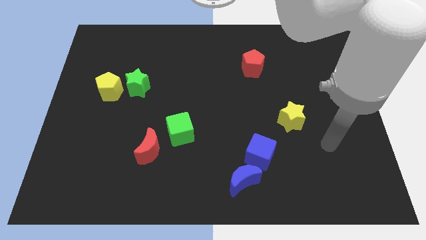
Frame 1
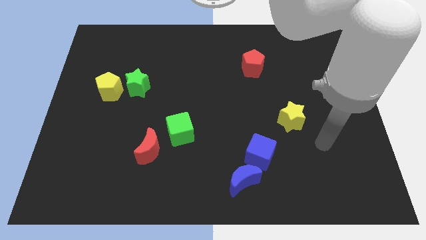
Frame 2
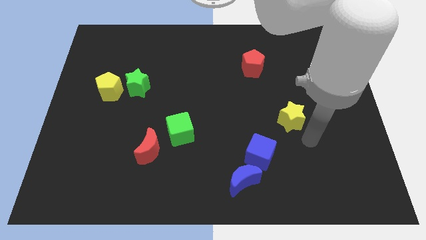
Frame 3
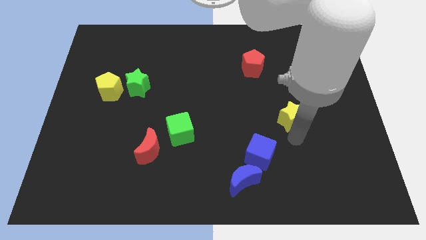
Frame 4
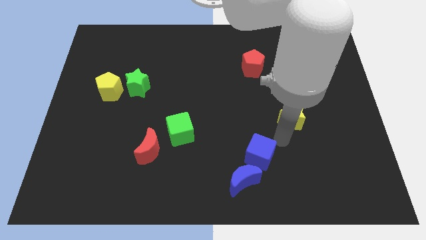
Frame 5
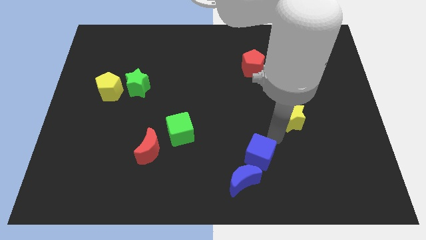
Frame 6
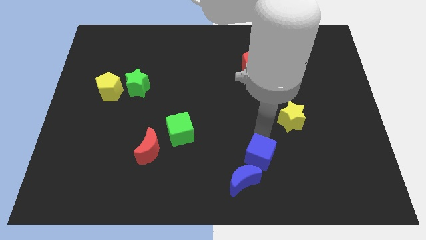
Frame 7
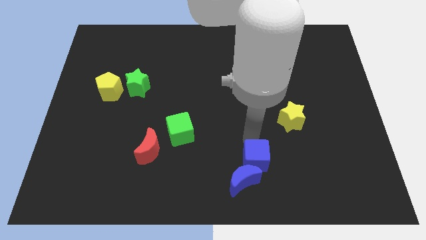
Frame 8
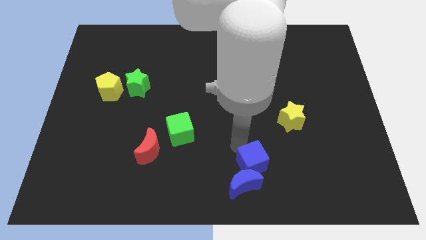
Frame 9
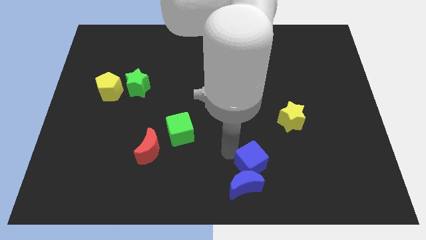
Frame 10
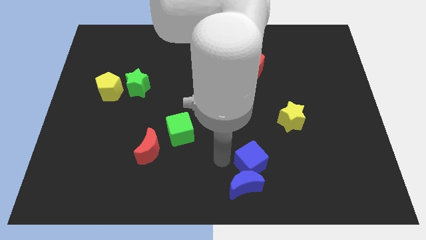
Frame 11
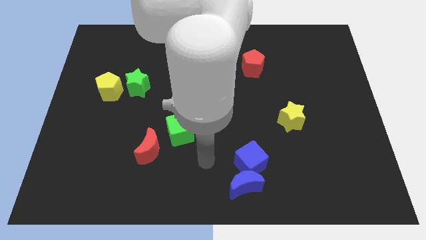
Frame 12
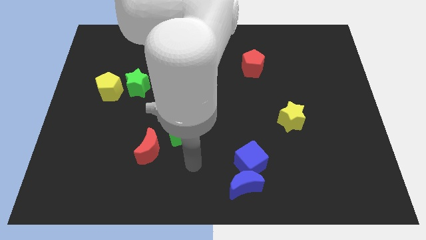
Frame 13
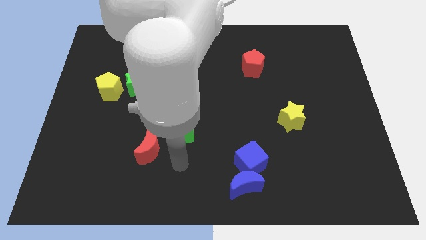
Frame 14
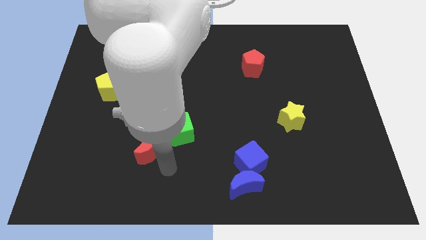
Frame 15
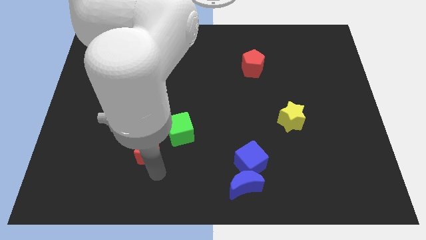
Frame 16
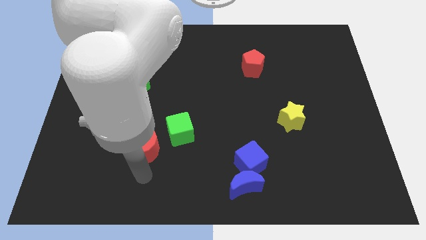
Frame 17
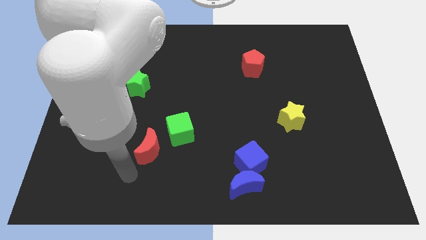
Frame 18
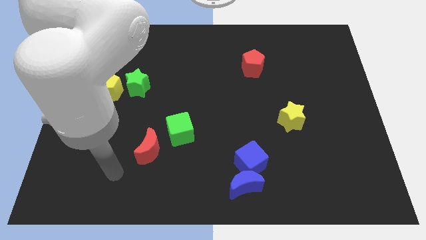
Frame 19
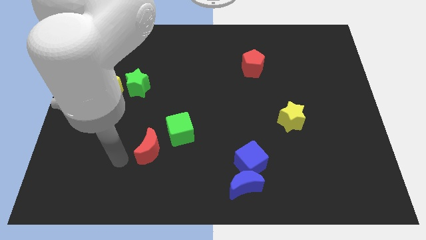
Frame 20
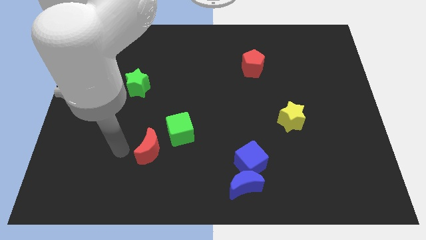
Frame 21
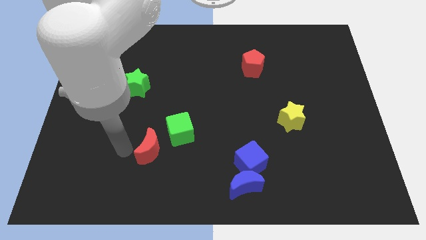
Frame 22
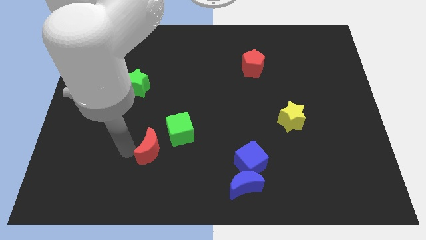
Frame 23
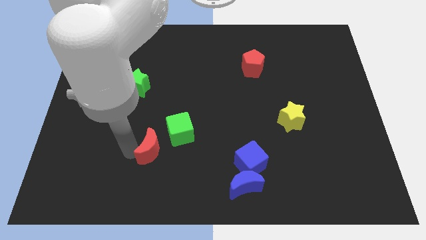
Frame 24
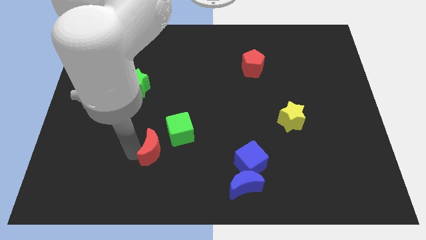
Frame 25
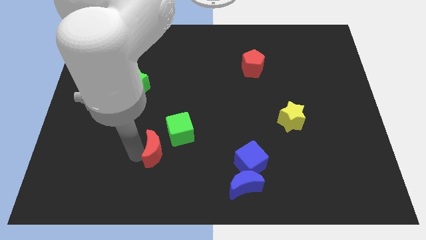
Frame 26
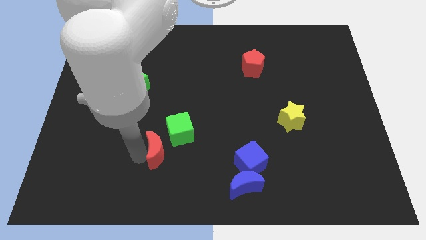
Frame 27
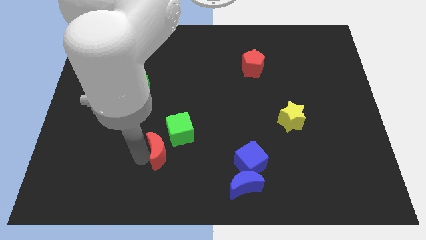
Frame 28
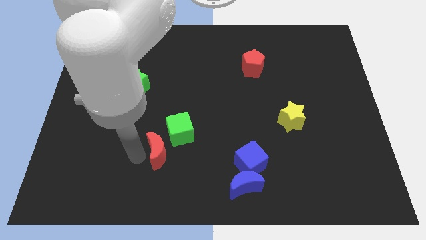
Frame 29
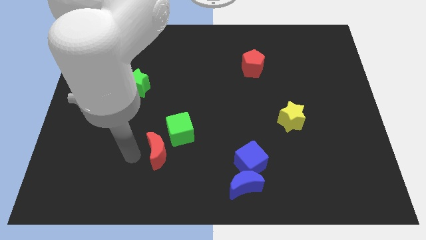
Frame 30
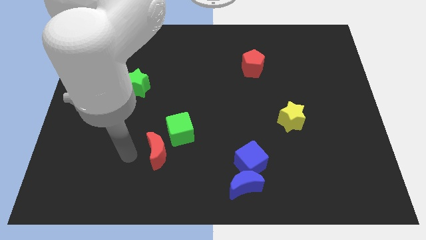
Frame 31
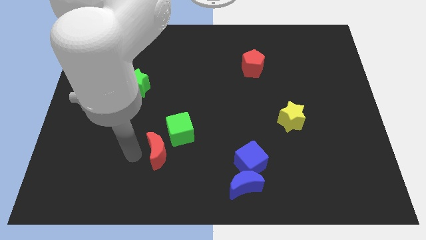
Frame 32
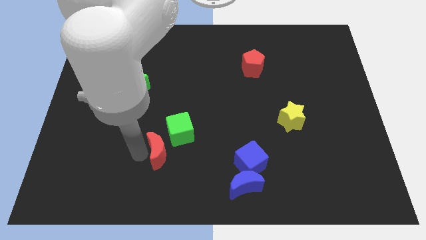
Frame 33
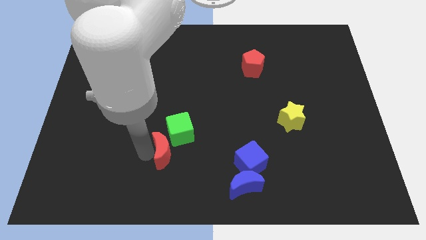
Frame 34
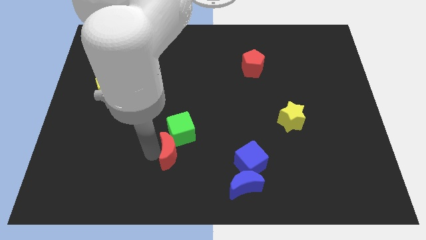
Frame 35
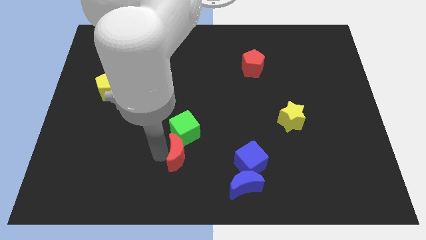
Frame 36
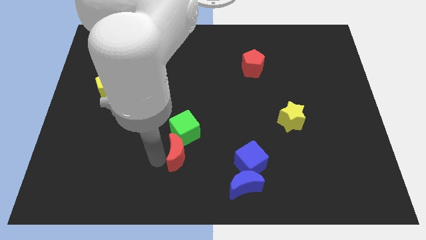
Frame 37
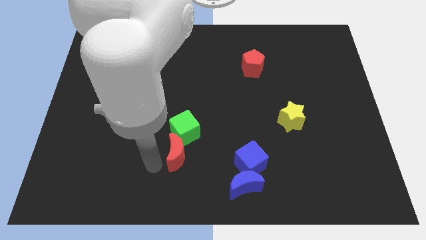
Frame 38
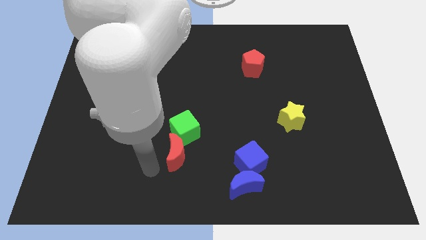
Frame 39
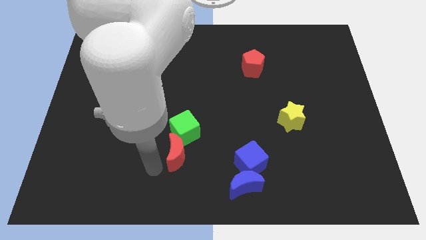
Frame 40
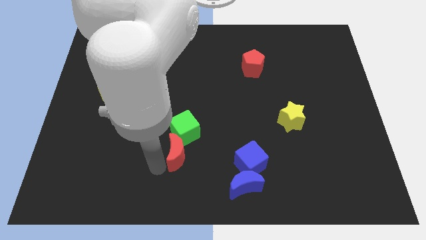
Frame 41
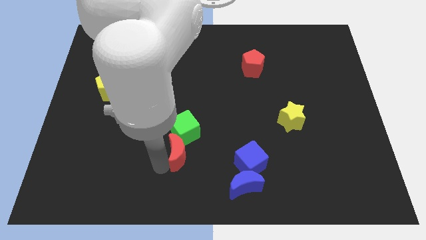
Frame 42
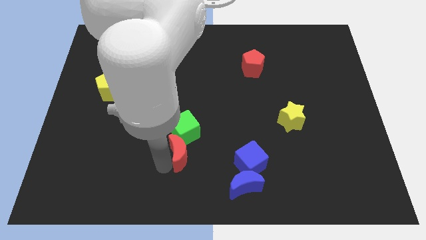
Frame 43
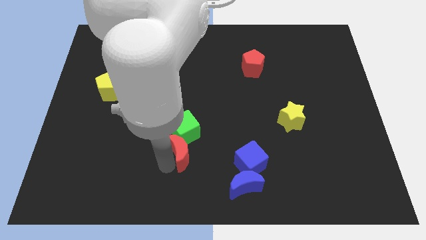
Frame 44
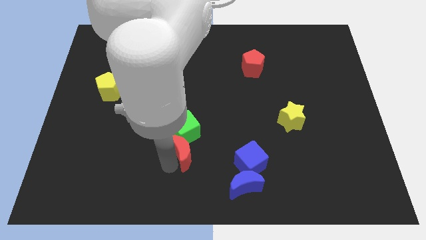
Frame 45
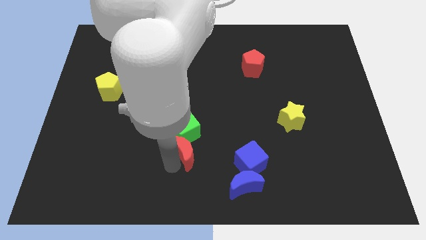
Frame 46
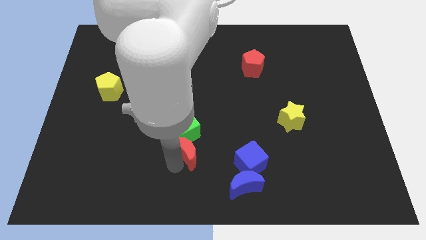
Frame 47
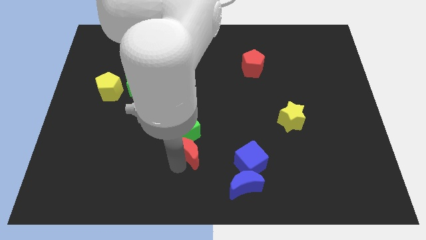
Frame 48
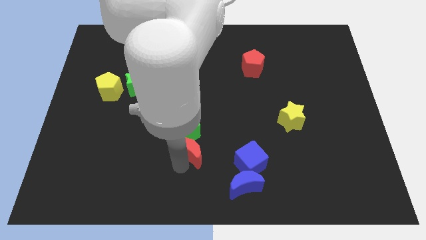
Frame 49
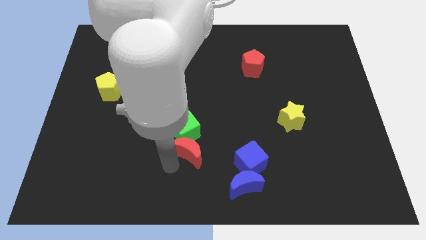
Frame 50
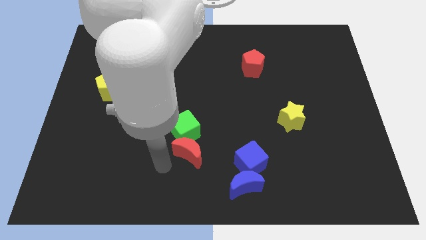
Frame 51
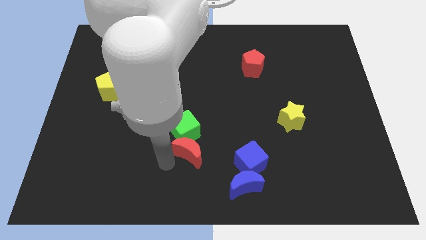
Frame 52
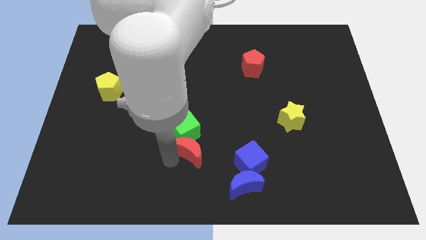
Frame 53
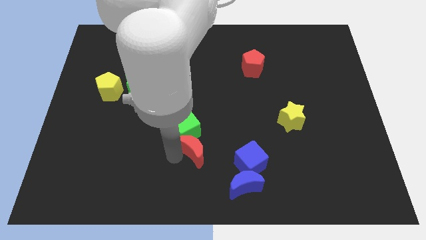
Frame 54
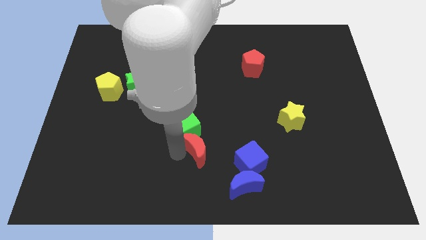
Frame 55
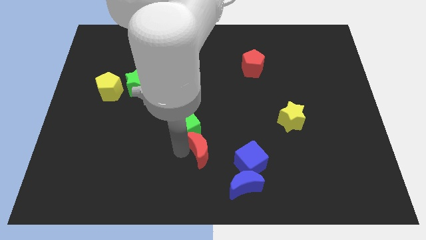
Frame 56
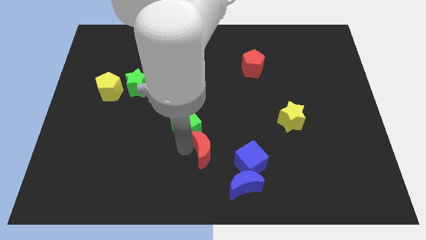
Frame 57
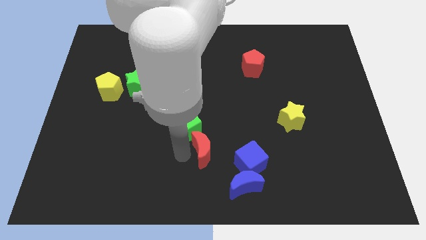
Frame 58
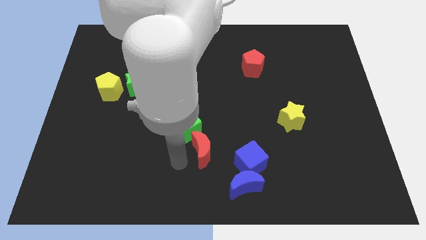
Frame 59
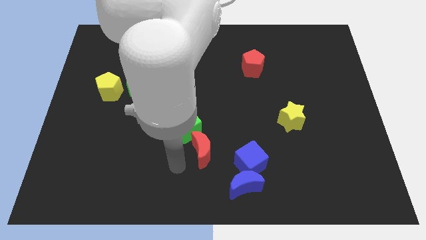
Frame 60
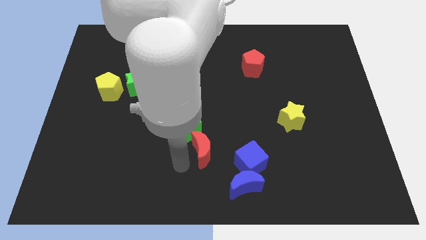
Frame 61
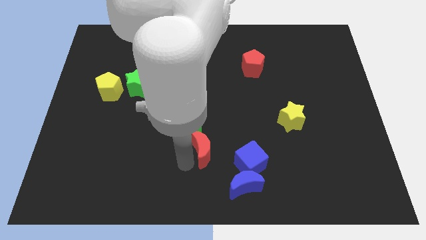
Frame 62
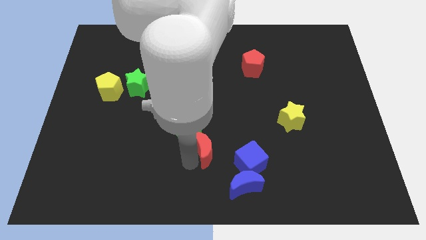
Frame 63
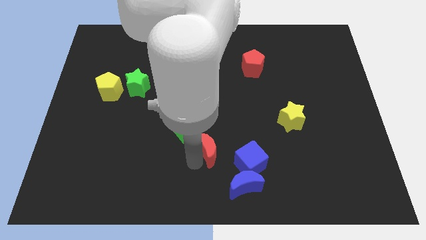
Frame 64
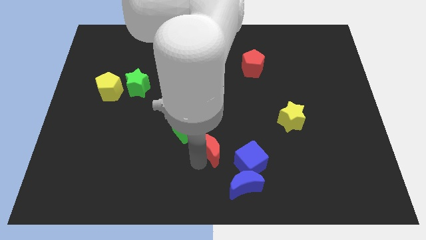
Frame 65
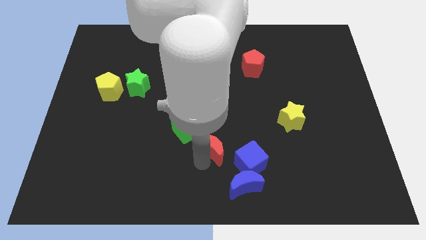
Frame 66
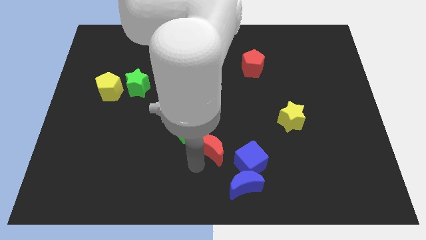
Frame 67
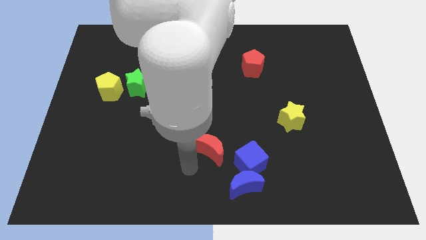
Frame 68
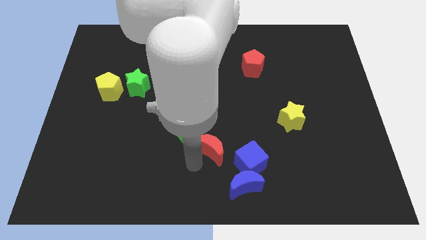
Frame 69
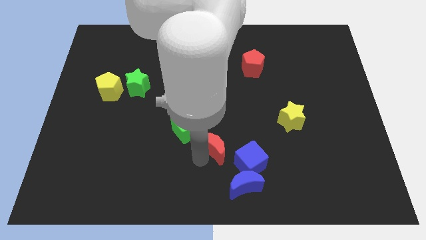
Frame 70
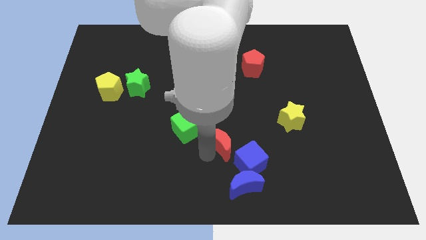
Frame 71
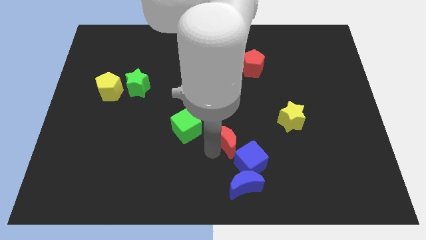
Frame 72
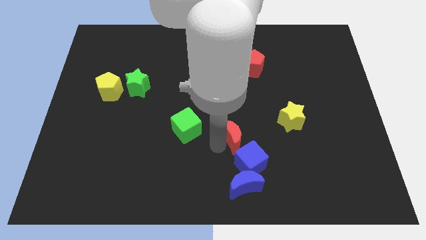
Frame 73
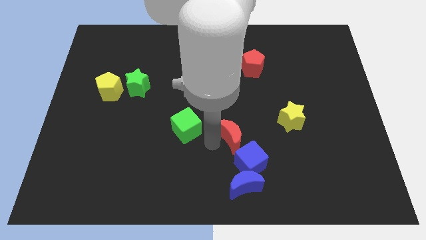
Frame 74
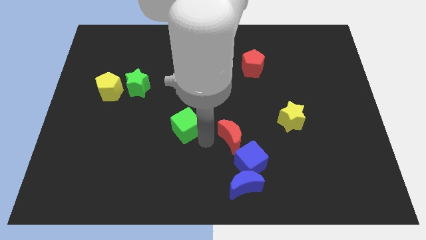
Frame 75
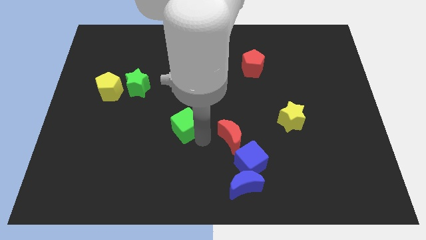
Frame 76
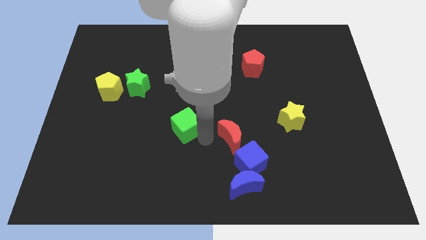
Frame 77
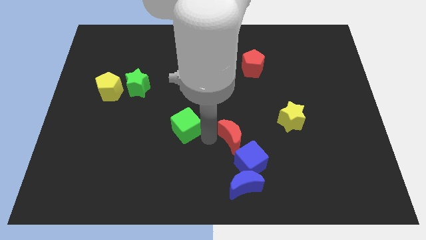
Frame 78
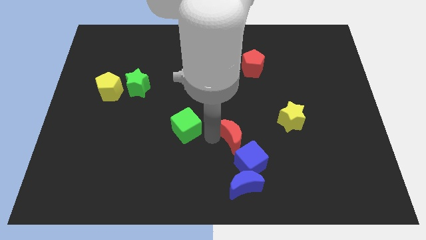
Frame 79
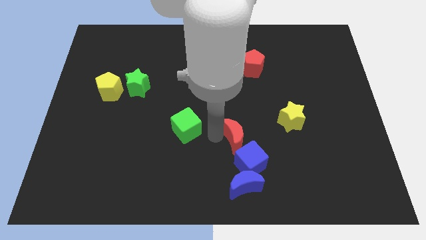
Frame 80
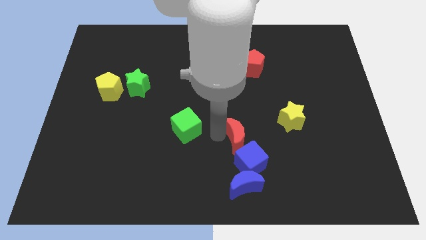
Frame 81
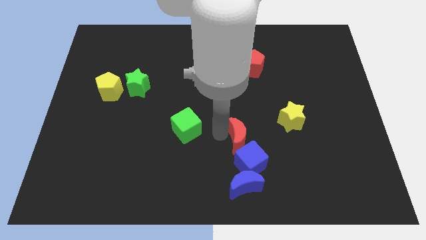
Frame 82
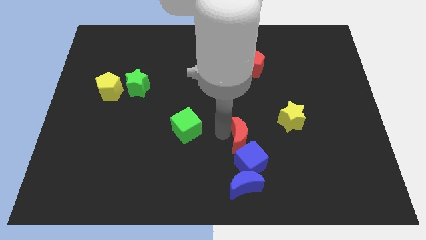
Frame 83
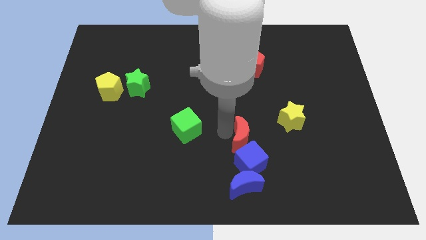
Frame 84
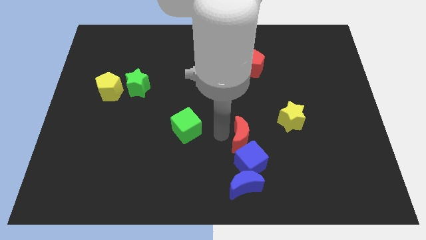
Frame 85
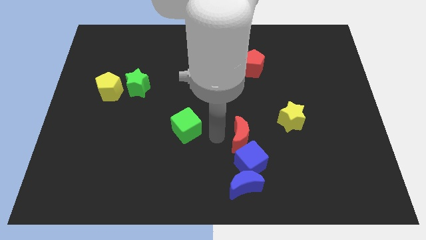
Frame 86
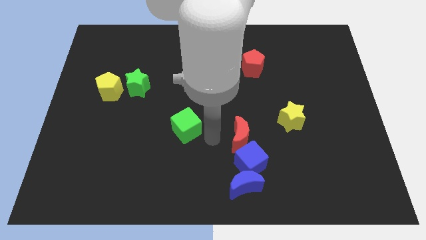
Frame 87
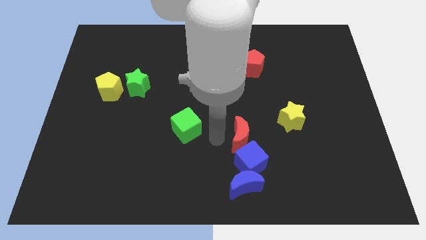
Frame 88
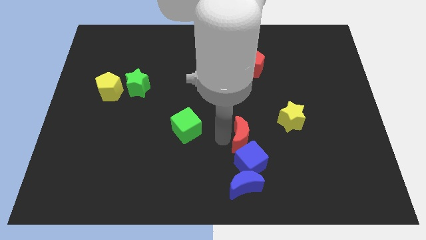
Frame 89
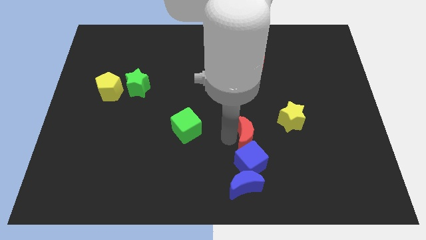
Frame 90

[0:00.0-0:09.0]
push the red moon to the right
